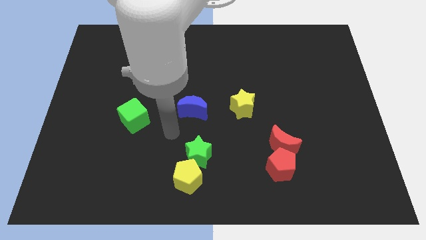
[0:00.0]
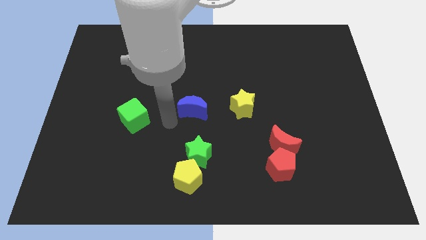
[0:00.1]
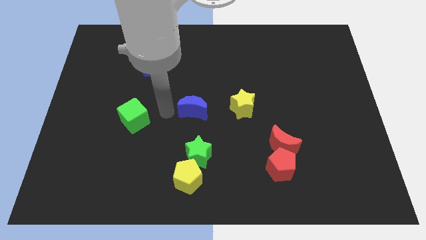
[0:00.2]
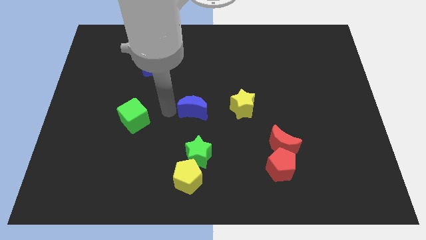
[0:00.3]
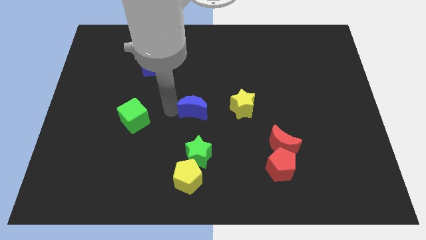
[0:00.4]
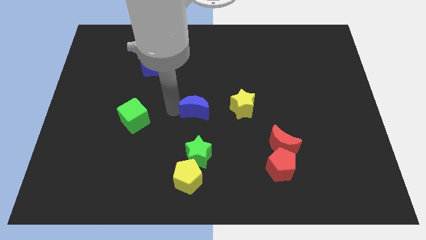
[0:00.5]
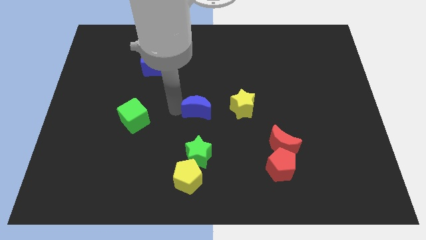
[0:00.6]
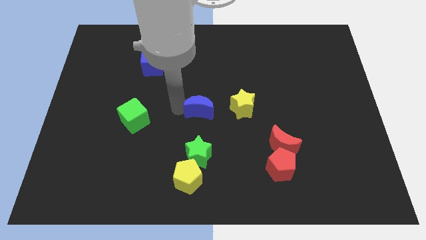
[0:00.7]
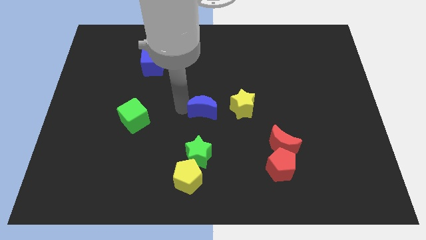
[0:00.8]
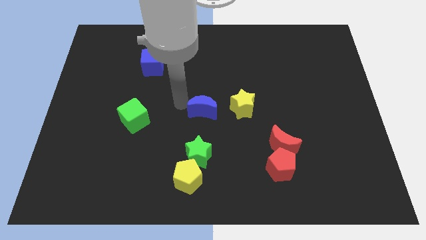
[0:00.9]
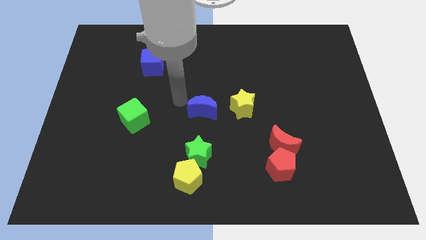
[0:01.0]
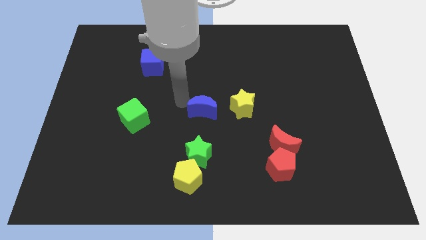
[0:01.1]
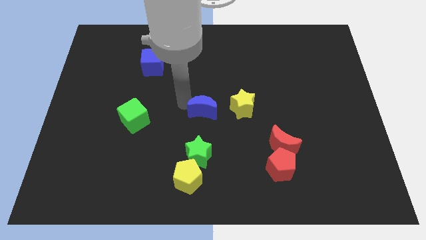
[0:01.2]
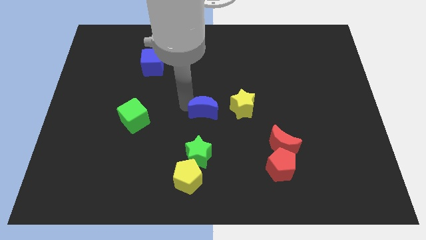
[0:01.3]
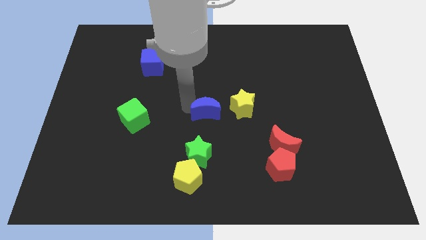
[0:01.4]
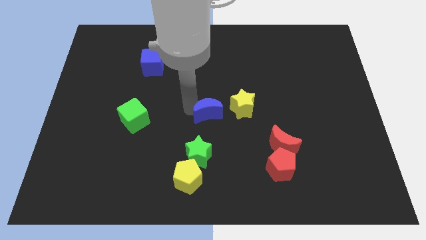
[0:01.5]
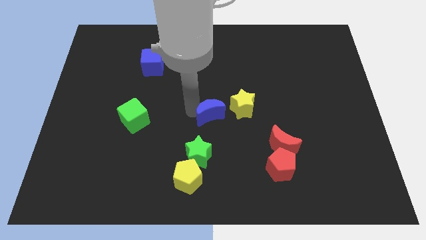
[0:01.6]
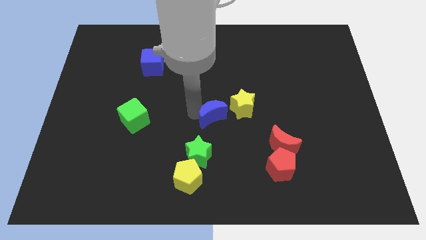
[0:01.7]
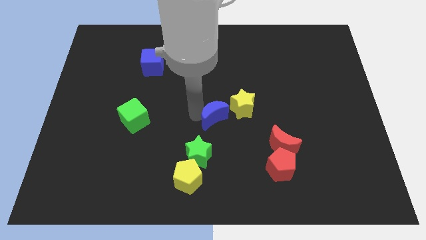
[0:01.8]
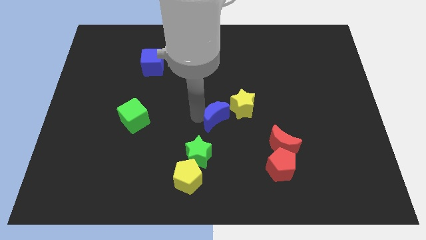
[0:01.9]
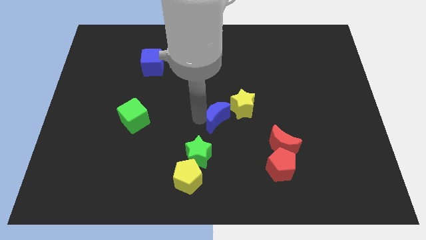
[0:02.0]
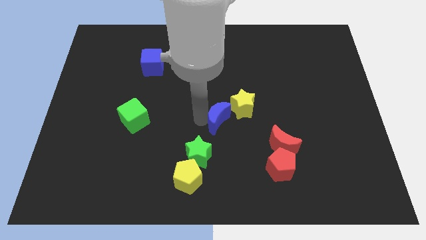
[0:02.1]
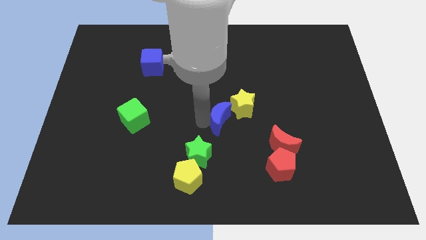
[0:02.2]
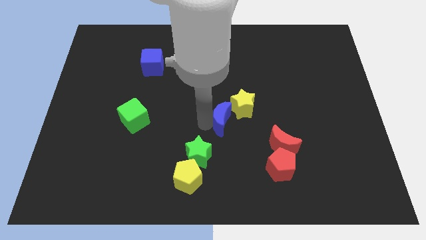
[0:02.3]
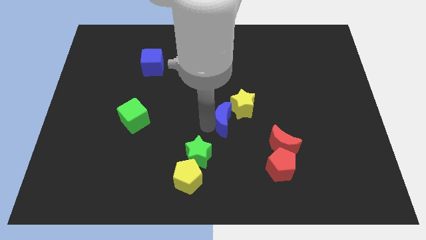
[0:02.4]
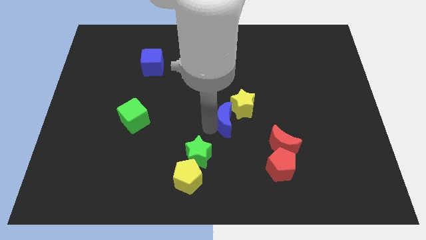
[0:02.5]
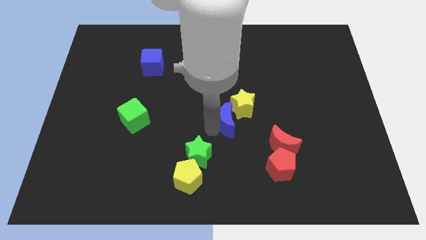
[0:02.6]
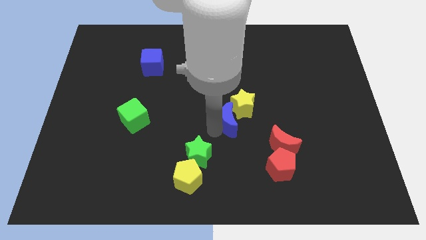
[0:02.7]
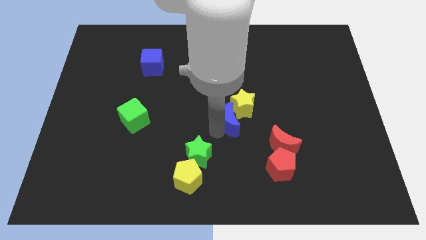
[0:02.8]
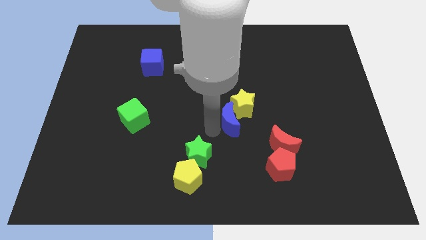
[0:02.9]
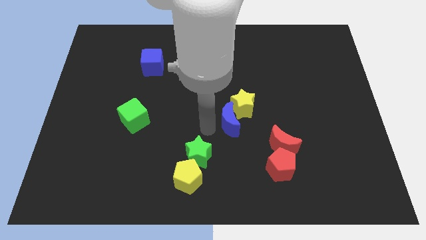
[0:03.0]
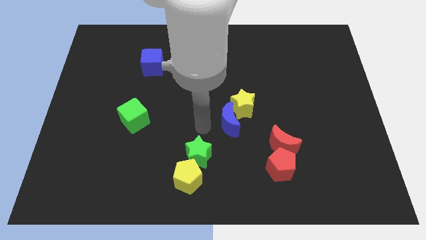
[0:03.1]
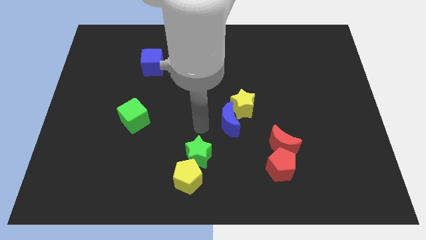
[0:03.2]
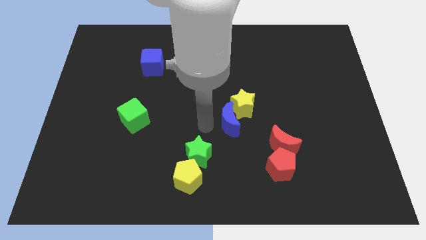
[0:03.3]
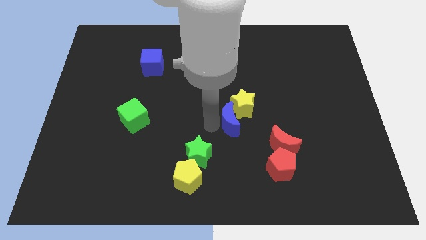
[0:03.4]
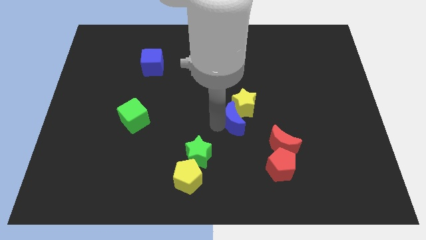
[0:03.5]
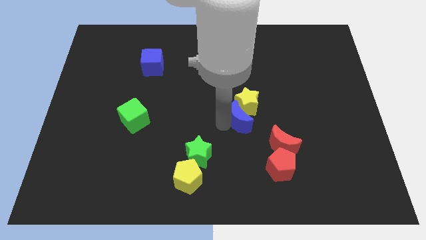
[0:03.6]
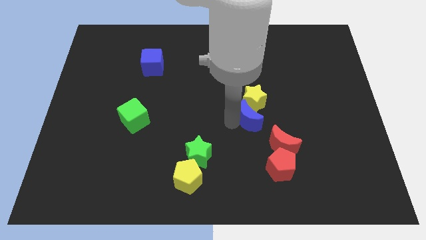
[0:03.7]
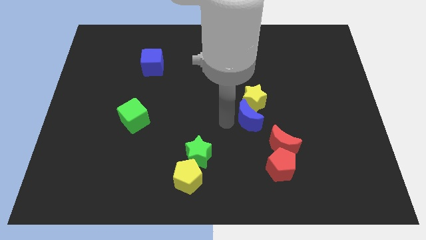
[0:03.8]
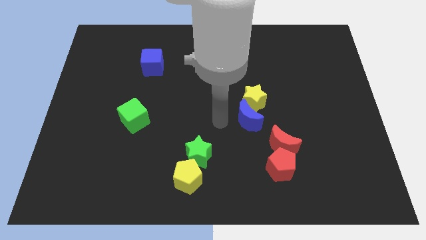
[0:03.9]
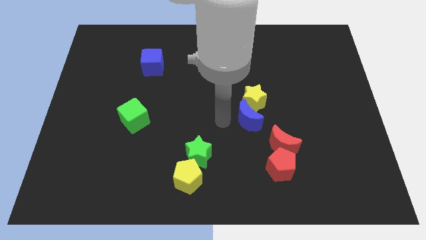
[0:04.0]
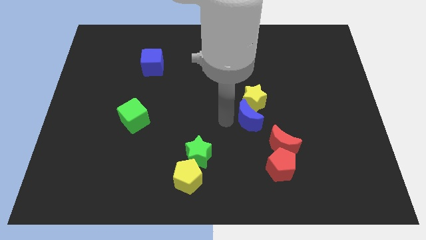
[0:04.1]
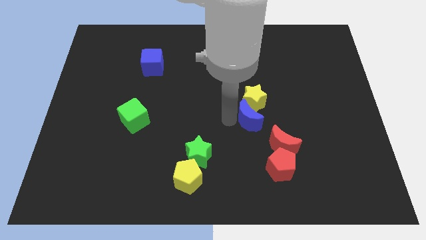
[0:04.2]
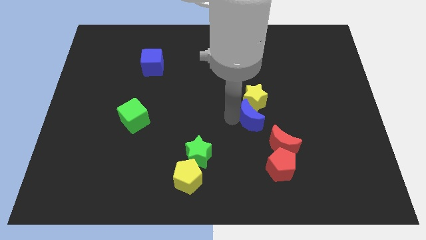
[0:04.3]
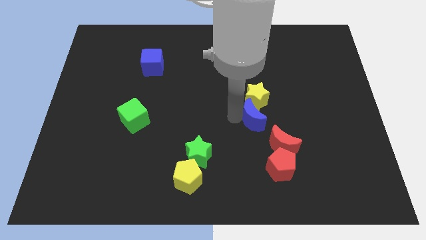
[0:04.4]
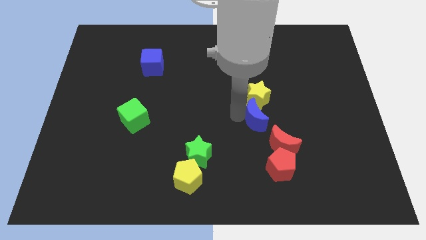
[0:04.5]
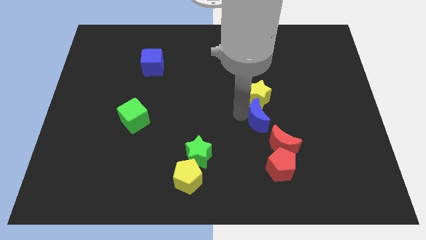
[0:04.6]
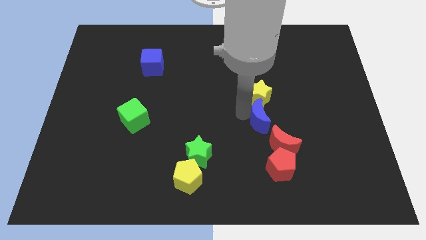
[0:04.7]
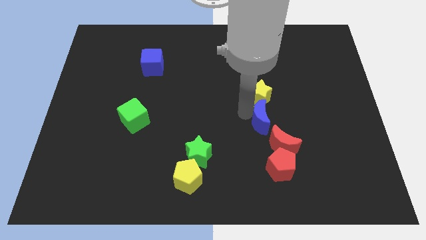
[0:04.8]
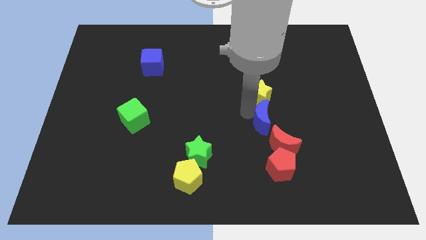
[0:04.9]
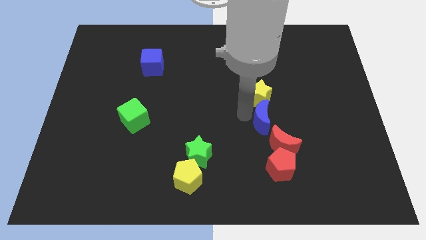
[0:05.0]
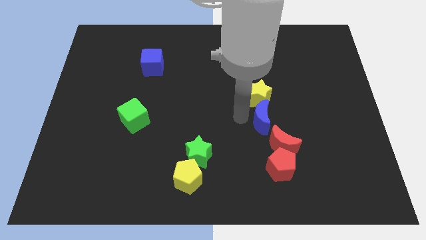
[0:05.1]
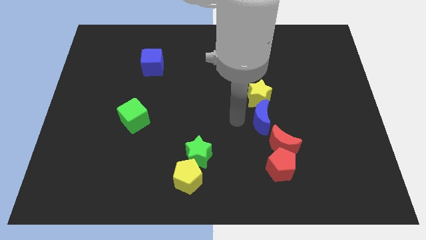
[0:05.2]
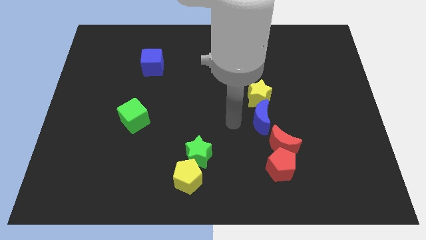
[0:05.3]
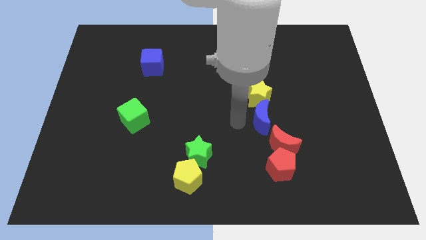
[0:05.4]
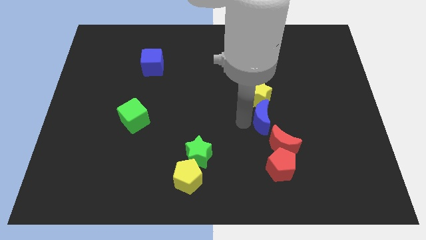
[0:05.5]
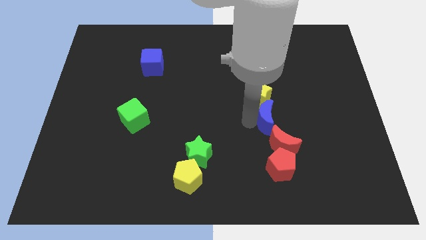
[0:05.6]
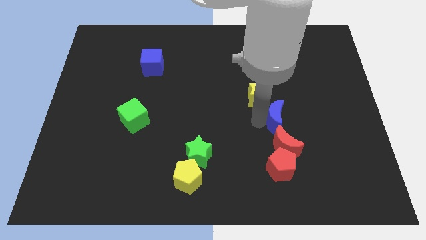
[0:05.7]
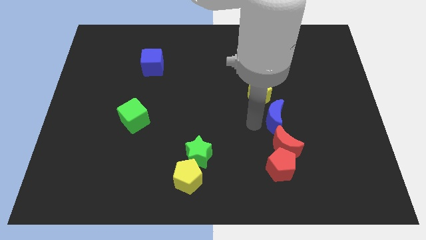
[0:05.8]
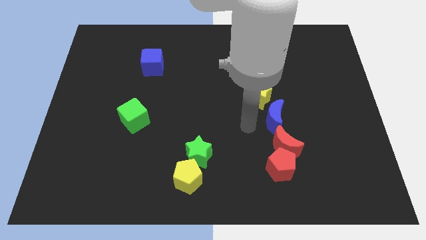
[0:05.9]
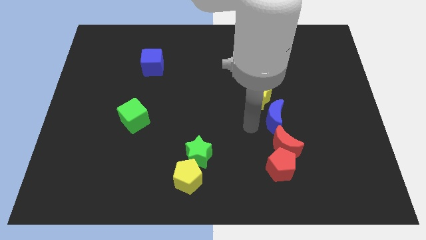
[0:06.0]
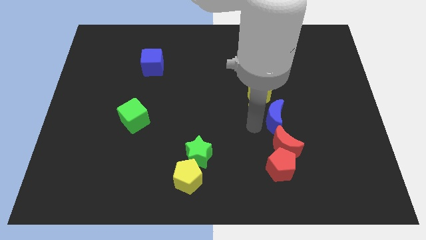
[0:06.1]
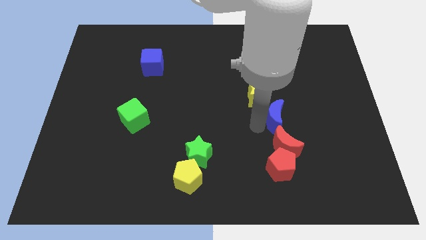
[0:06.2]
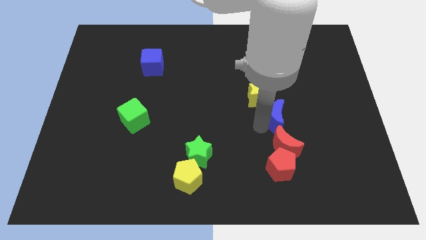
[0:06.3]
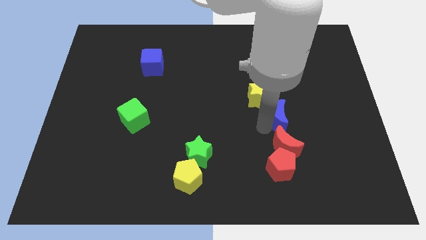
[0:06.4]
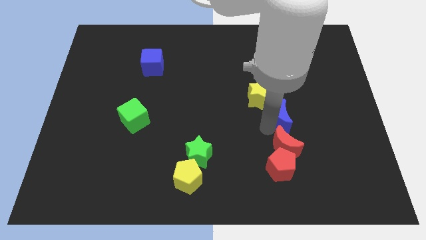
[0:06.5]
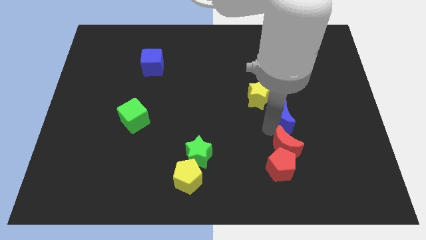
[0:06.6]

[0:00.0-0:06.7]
slide the blue moon right
